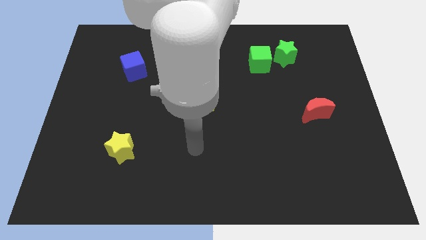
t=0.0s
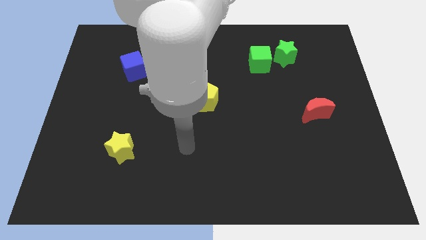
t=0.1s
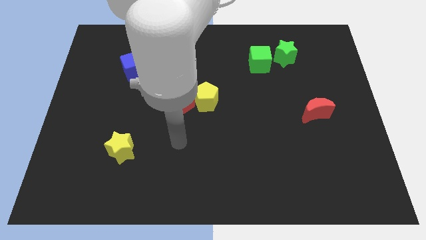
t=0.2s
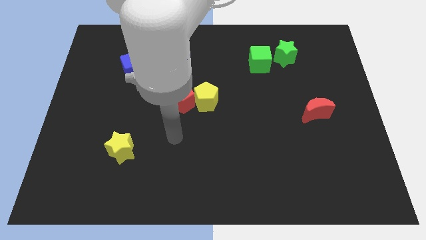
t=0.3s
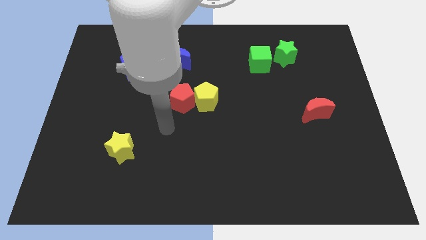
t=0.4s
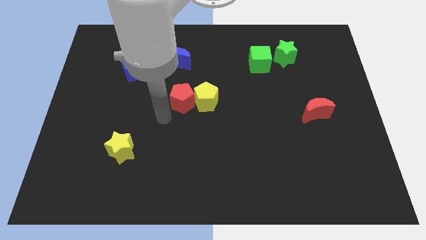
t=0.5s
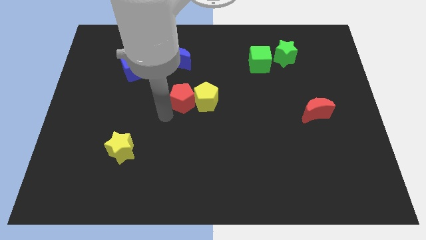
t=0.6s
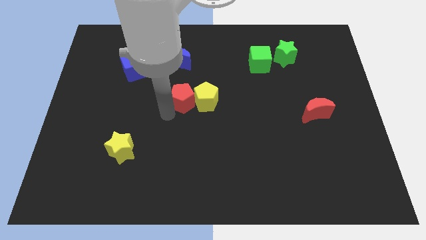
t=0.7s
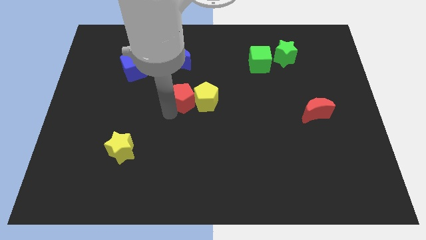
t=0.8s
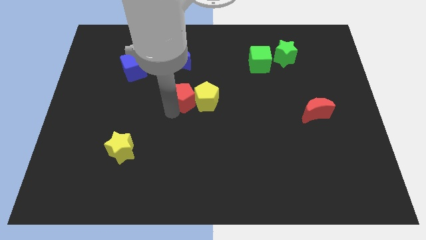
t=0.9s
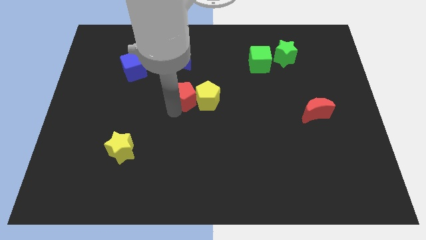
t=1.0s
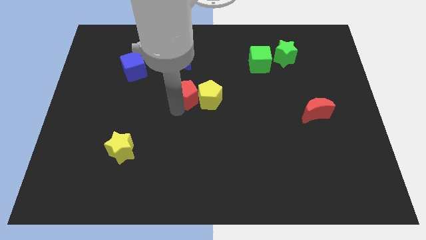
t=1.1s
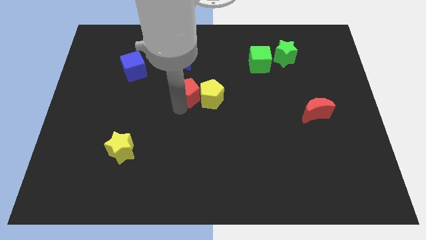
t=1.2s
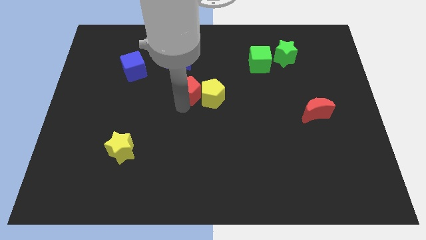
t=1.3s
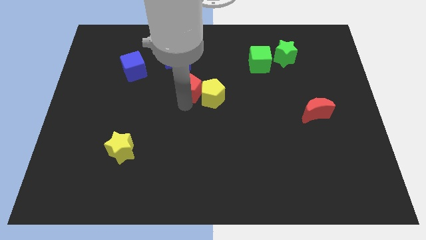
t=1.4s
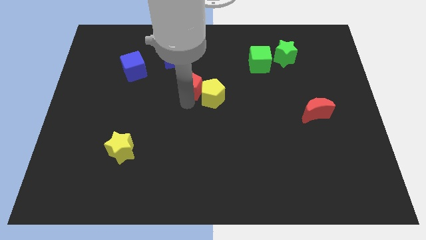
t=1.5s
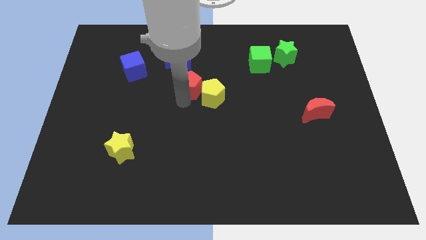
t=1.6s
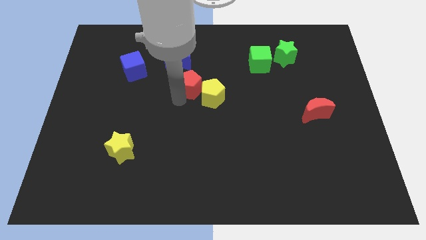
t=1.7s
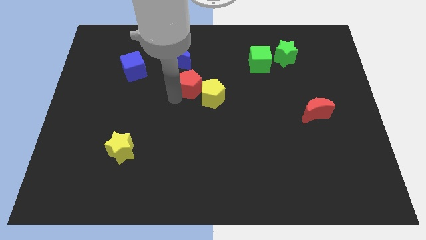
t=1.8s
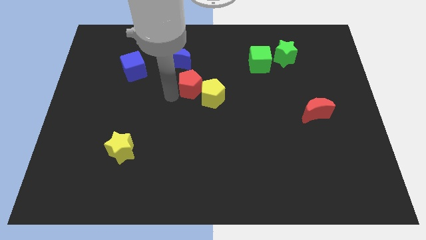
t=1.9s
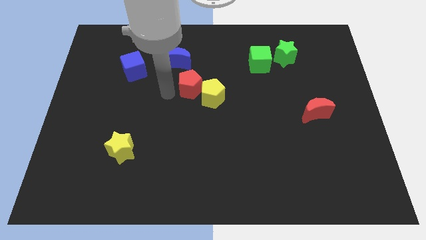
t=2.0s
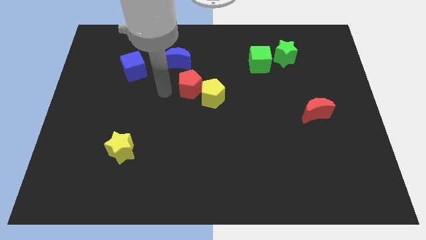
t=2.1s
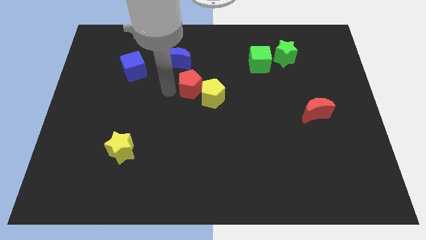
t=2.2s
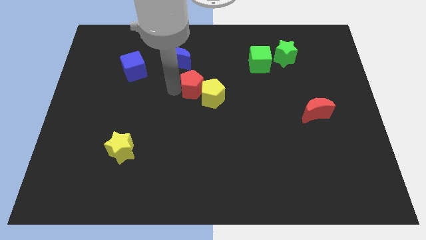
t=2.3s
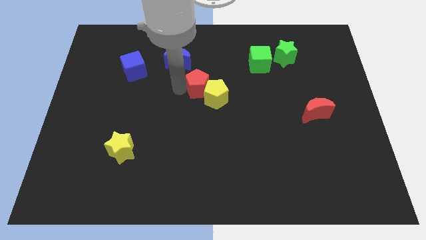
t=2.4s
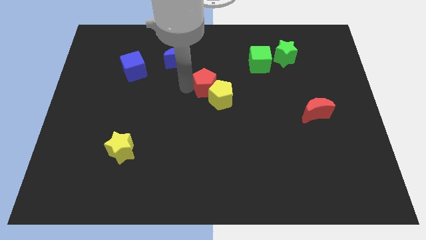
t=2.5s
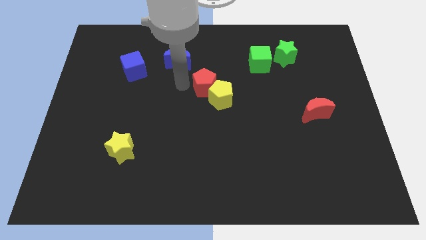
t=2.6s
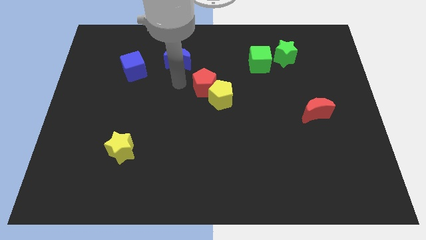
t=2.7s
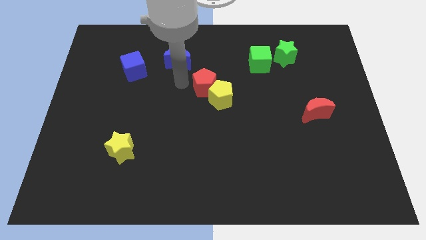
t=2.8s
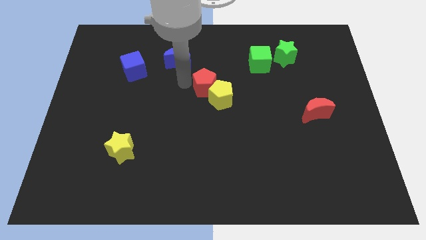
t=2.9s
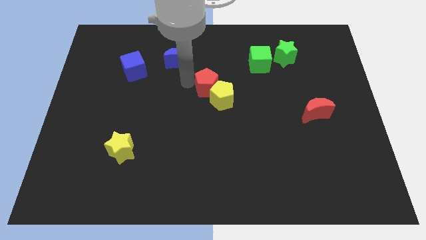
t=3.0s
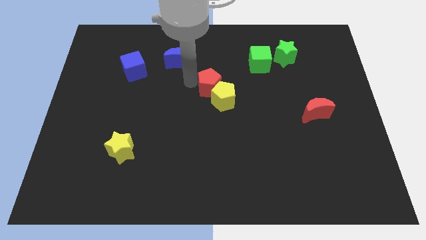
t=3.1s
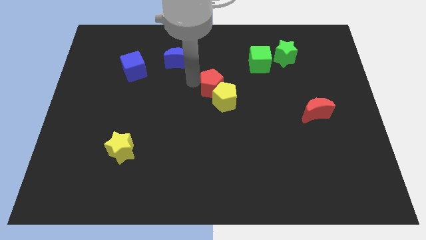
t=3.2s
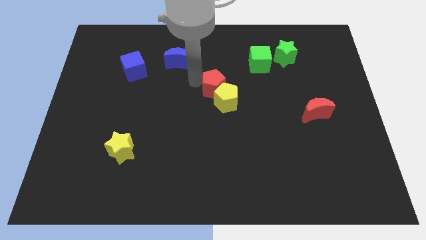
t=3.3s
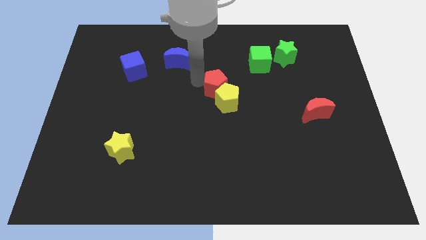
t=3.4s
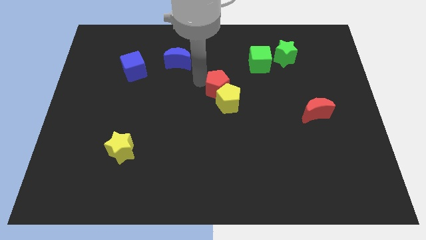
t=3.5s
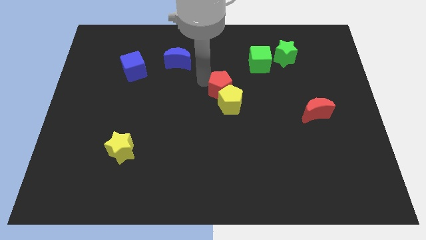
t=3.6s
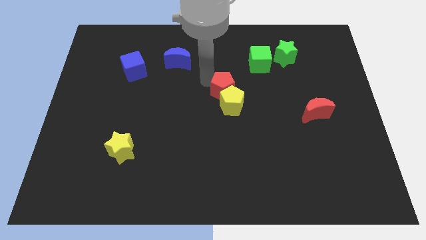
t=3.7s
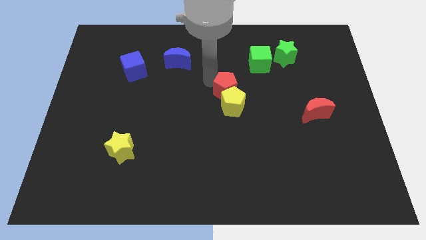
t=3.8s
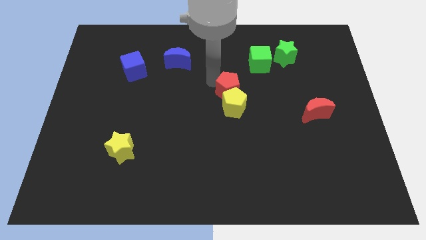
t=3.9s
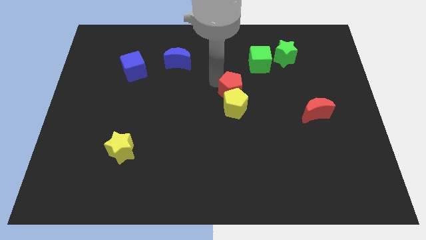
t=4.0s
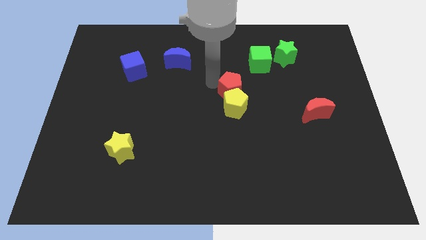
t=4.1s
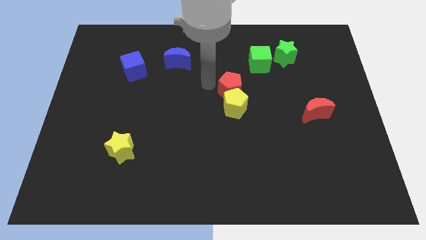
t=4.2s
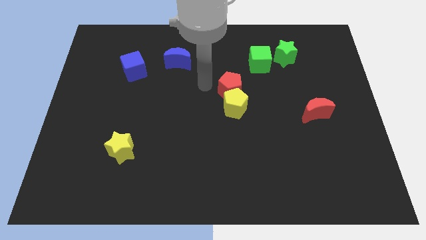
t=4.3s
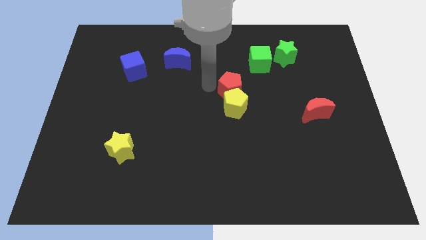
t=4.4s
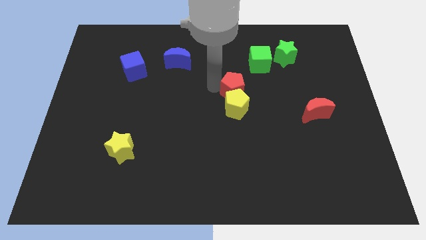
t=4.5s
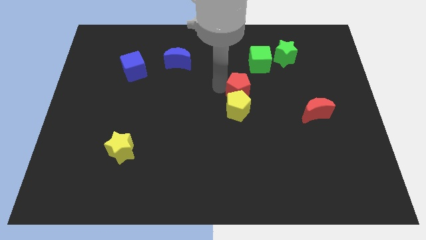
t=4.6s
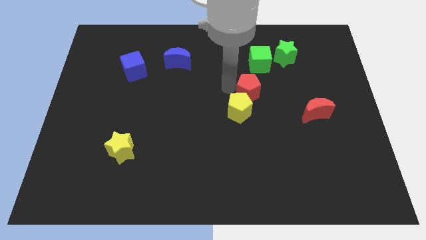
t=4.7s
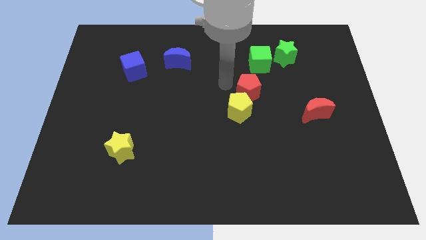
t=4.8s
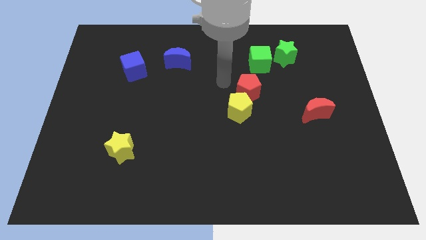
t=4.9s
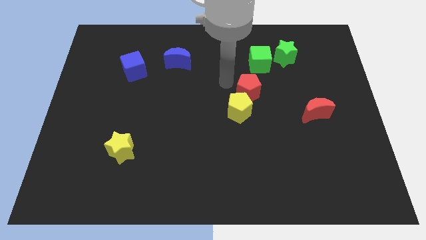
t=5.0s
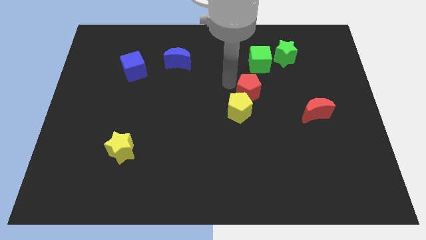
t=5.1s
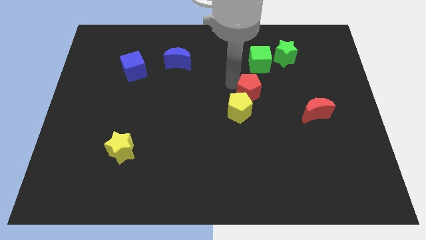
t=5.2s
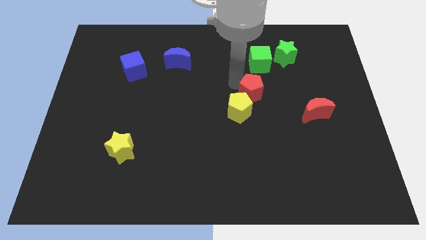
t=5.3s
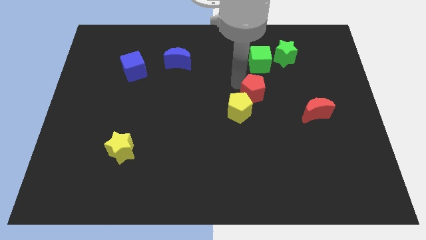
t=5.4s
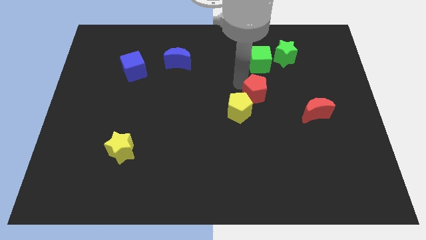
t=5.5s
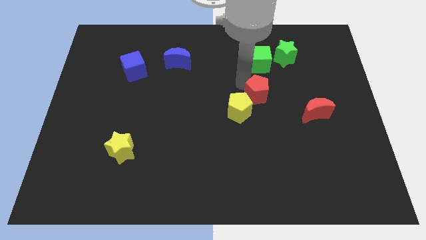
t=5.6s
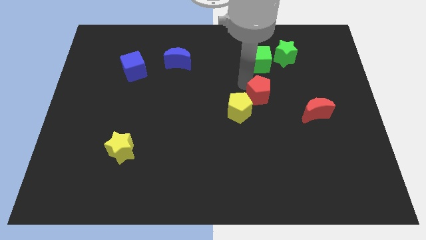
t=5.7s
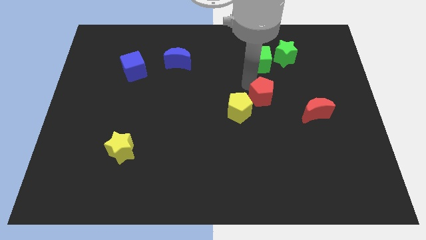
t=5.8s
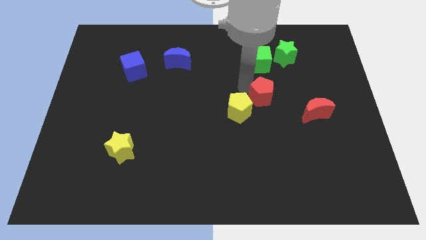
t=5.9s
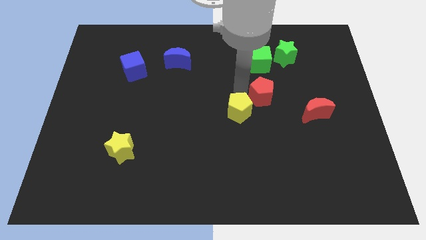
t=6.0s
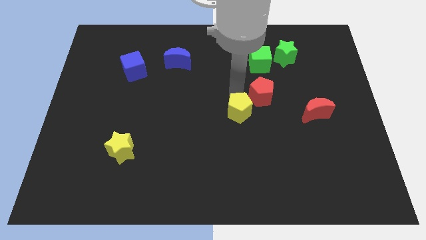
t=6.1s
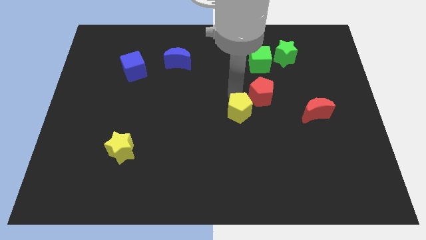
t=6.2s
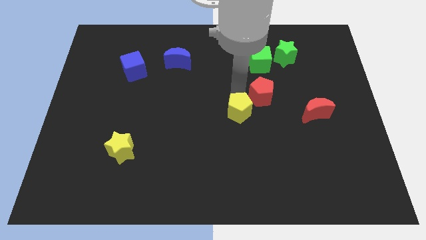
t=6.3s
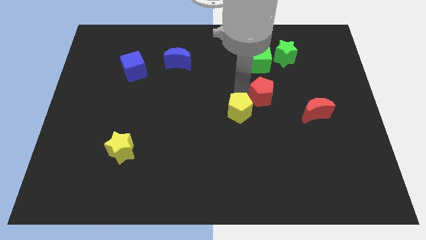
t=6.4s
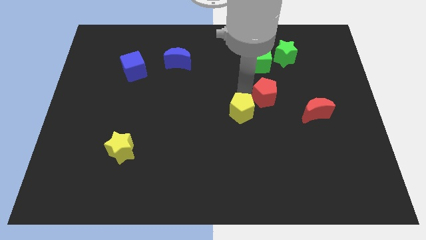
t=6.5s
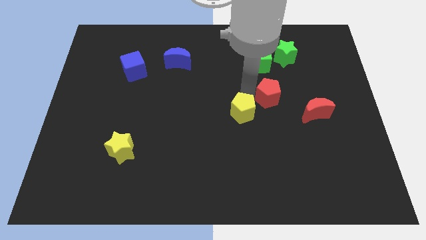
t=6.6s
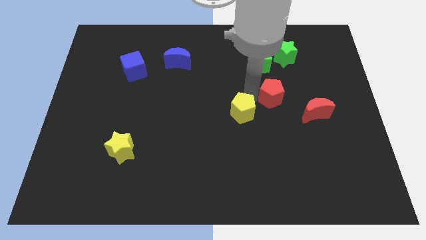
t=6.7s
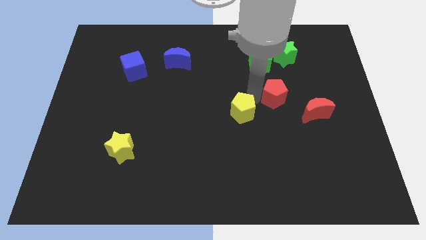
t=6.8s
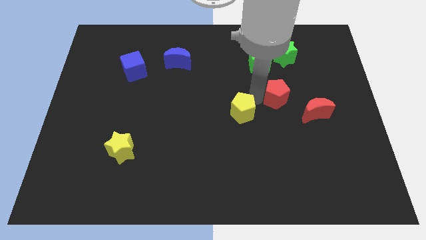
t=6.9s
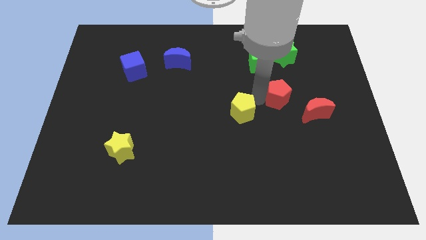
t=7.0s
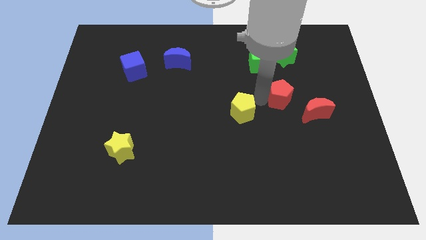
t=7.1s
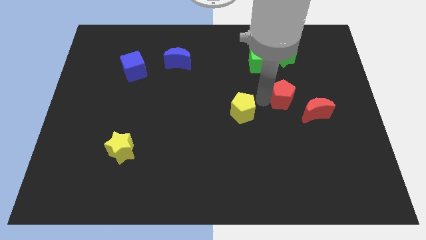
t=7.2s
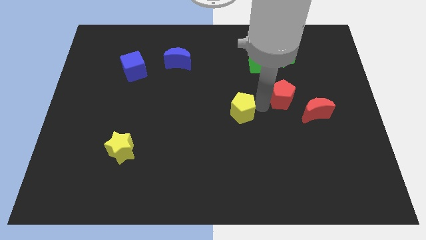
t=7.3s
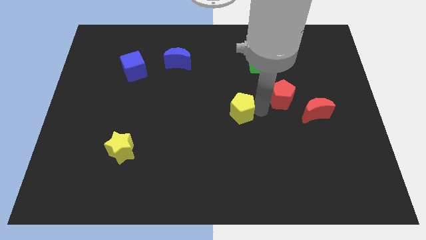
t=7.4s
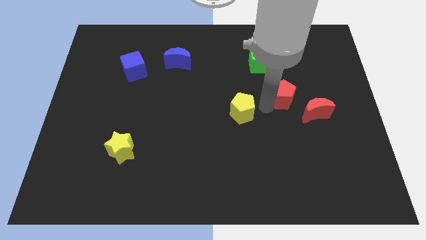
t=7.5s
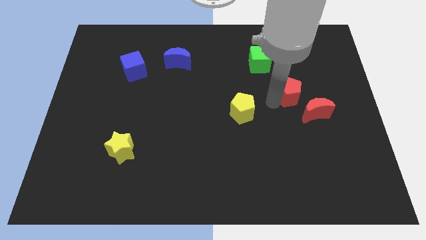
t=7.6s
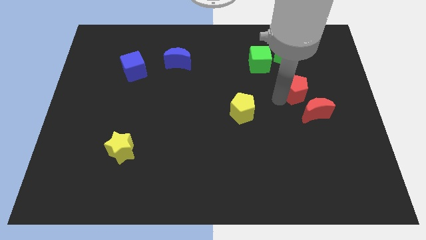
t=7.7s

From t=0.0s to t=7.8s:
move the red pentagon to the top side of the red moon
